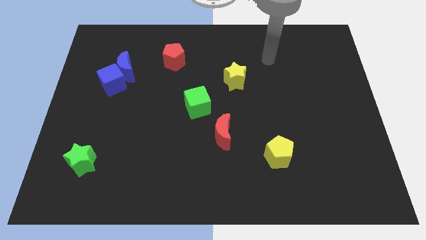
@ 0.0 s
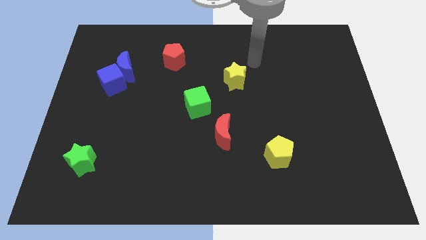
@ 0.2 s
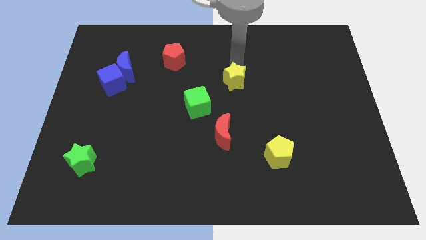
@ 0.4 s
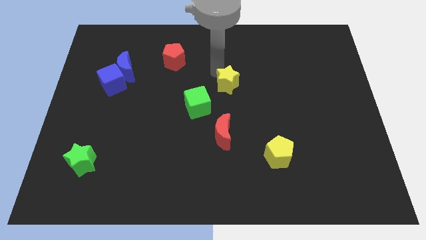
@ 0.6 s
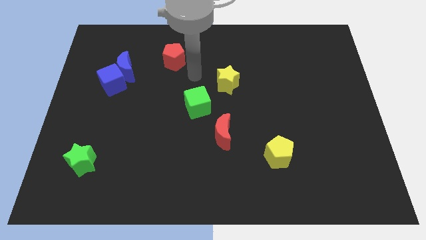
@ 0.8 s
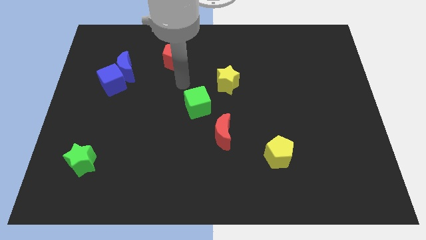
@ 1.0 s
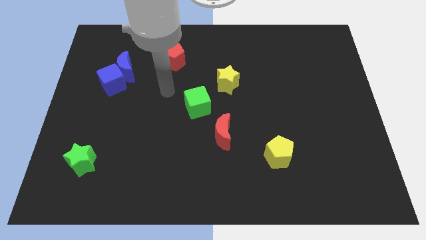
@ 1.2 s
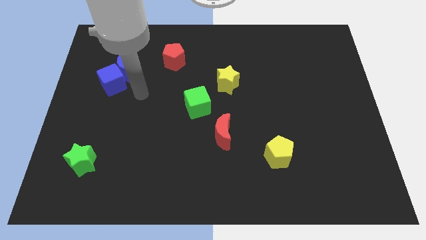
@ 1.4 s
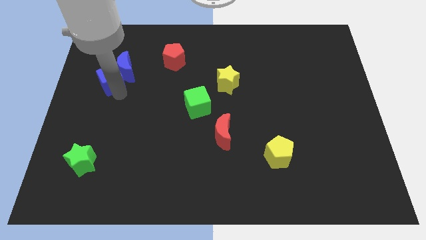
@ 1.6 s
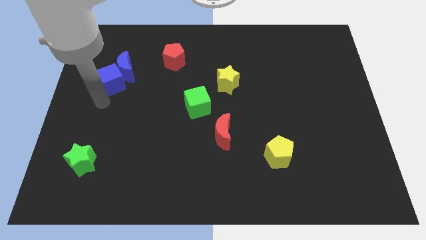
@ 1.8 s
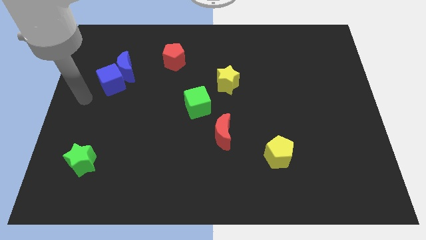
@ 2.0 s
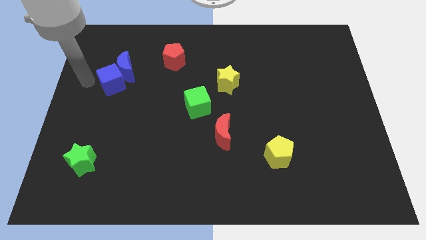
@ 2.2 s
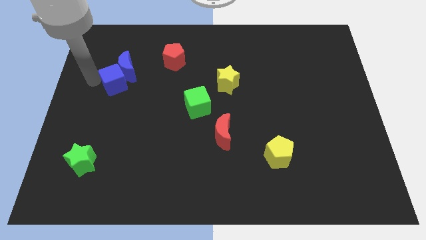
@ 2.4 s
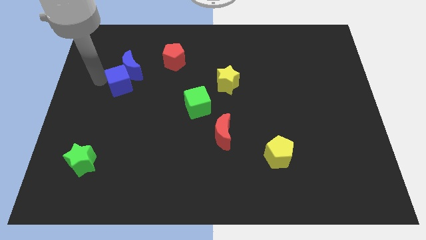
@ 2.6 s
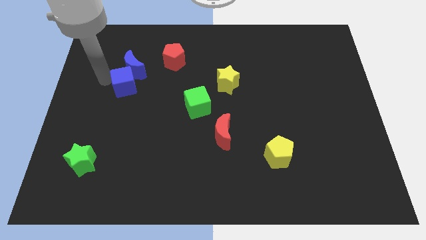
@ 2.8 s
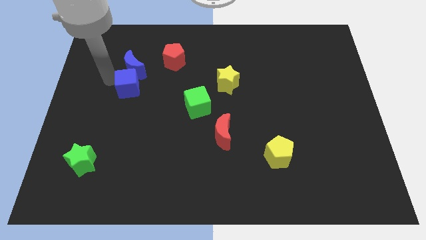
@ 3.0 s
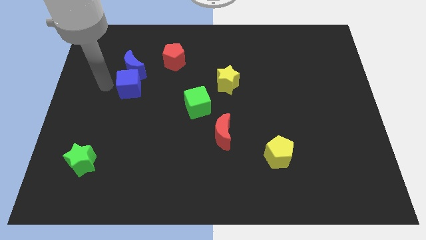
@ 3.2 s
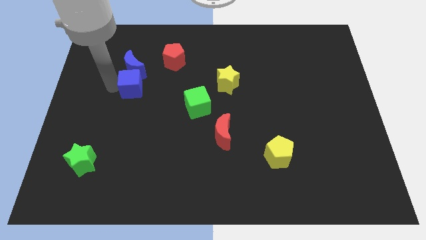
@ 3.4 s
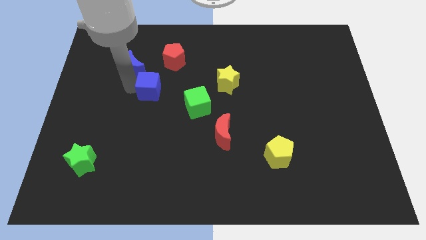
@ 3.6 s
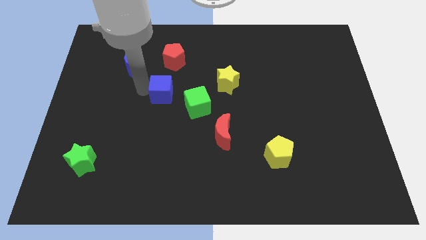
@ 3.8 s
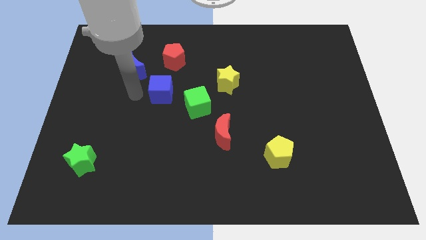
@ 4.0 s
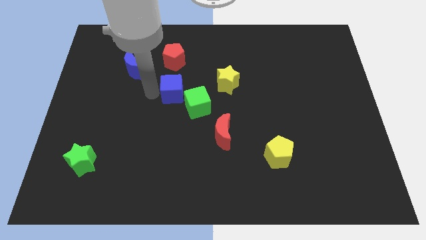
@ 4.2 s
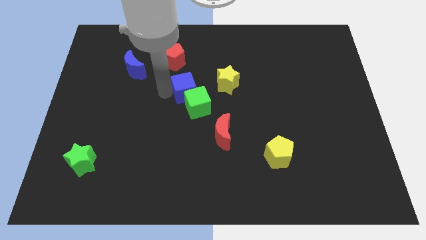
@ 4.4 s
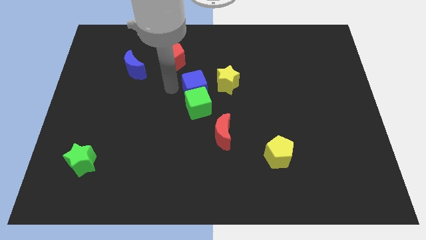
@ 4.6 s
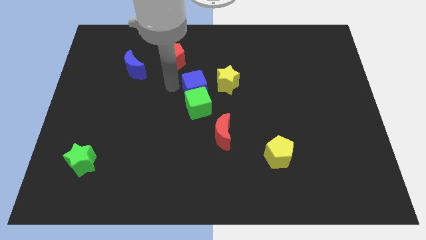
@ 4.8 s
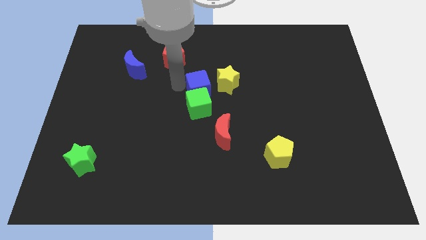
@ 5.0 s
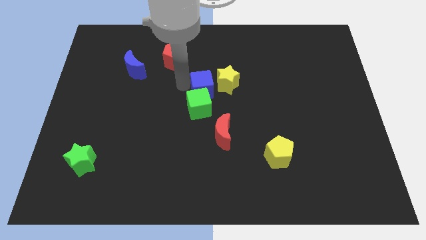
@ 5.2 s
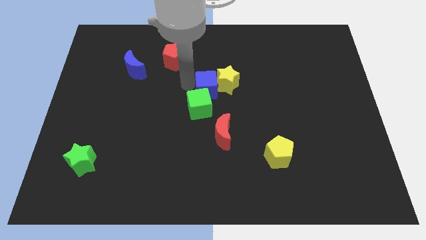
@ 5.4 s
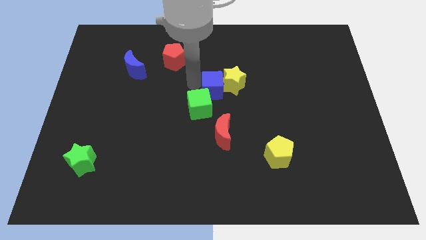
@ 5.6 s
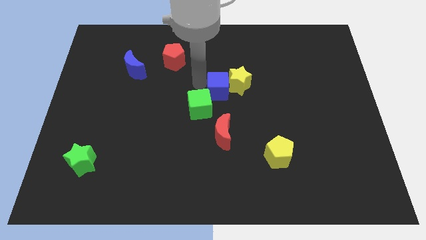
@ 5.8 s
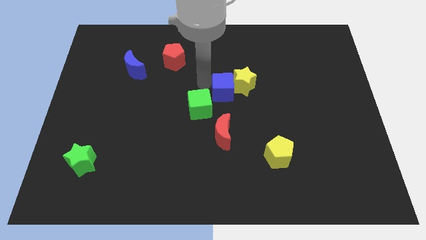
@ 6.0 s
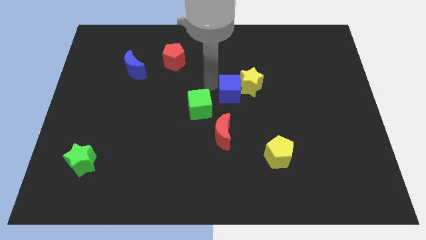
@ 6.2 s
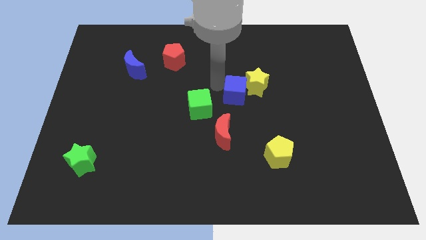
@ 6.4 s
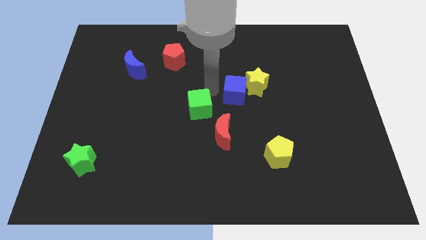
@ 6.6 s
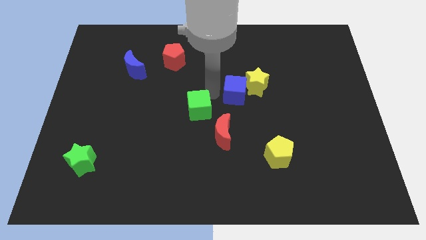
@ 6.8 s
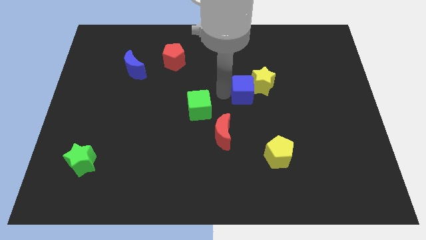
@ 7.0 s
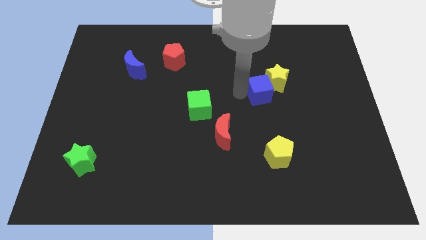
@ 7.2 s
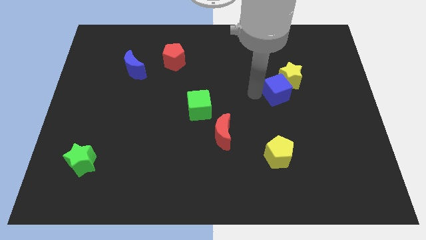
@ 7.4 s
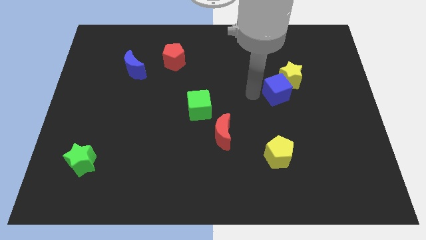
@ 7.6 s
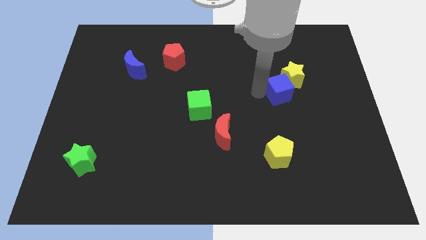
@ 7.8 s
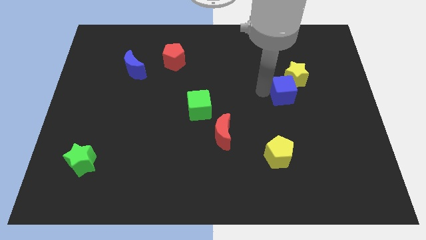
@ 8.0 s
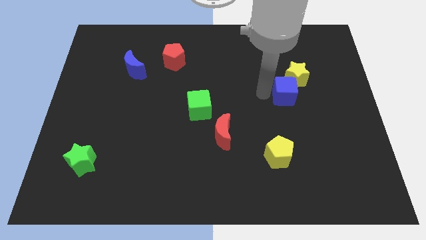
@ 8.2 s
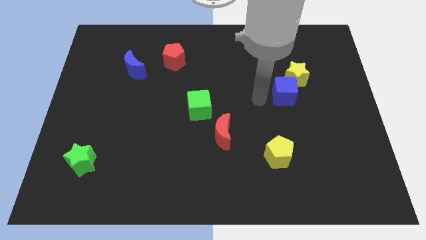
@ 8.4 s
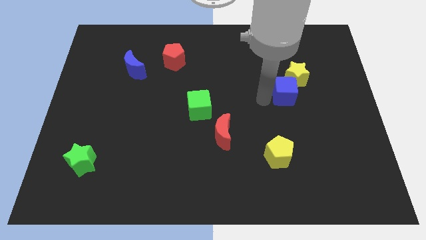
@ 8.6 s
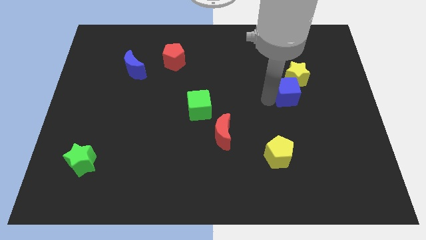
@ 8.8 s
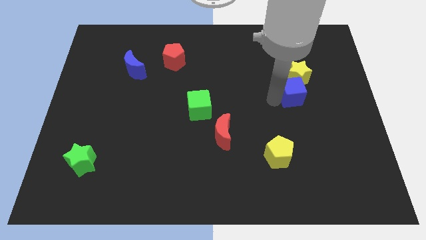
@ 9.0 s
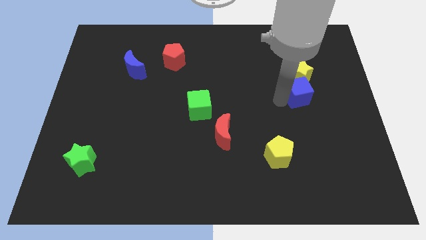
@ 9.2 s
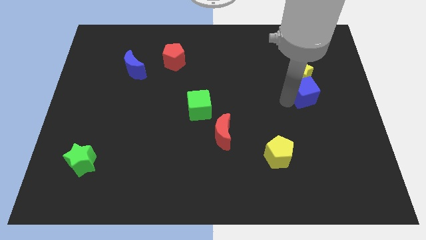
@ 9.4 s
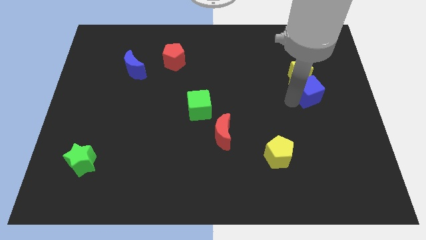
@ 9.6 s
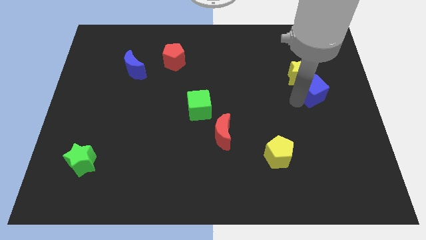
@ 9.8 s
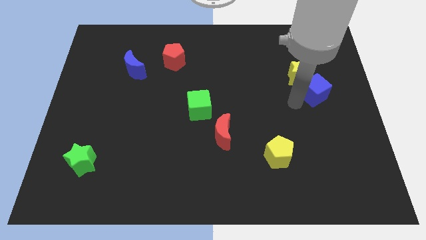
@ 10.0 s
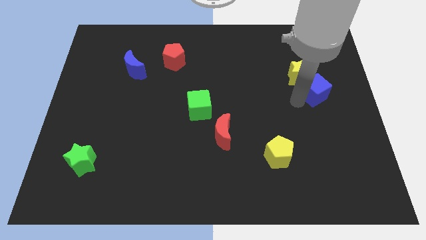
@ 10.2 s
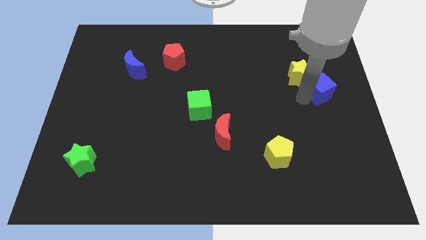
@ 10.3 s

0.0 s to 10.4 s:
put the blue cube to the center right

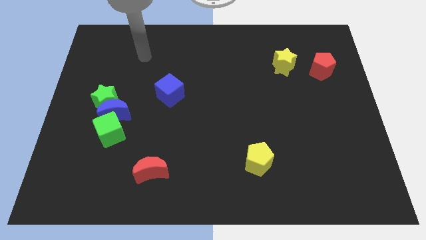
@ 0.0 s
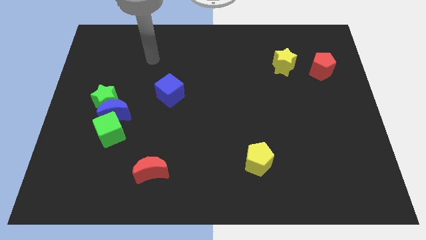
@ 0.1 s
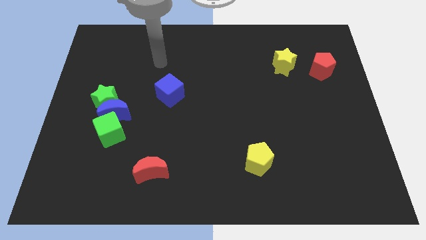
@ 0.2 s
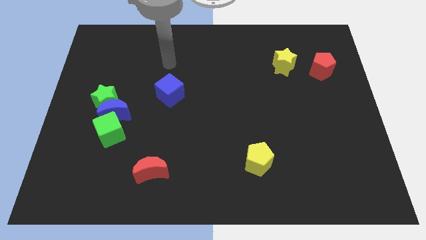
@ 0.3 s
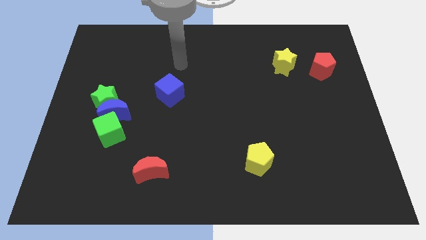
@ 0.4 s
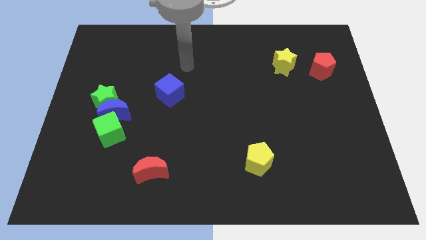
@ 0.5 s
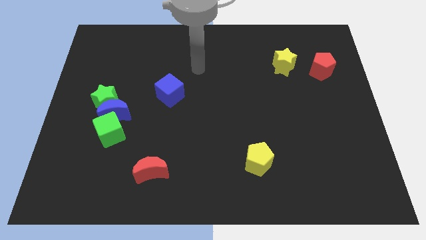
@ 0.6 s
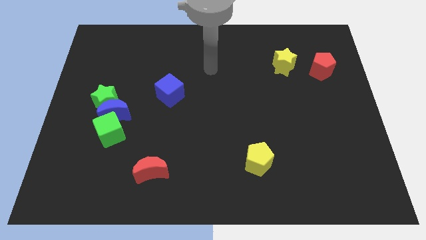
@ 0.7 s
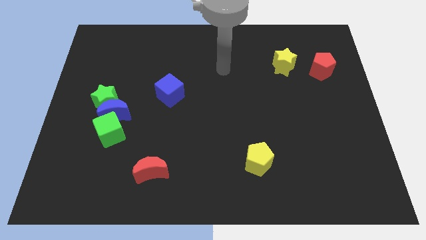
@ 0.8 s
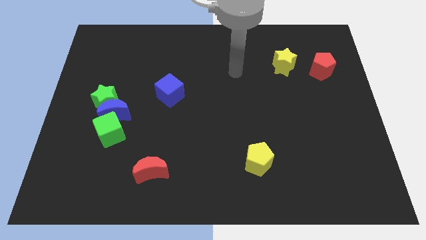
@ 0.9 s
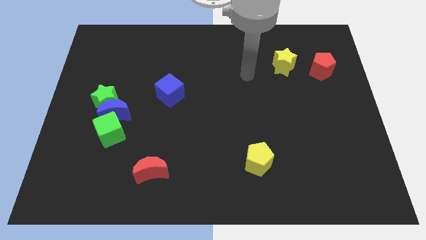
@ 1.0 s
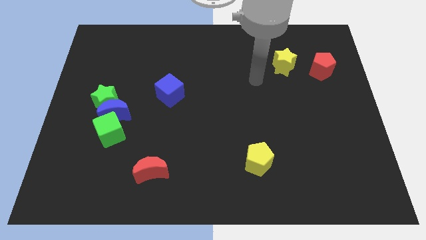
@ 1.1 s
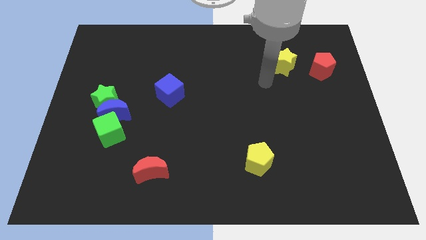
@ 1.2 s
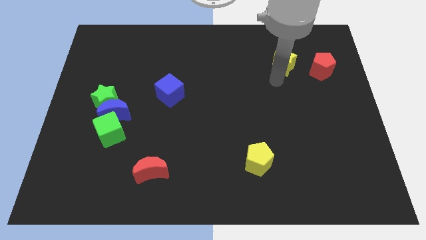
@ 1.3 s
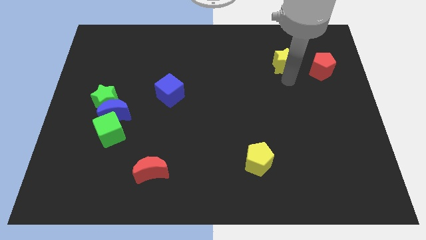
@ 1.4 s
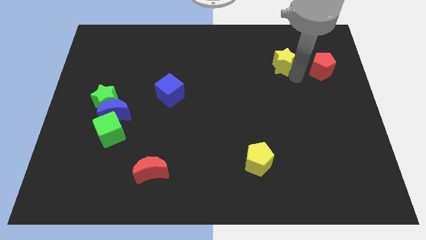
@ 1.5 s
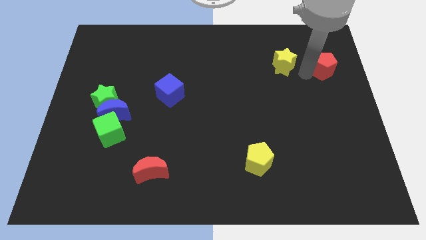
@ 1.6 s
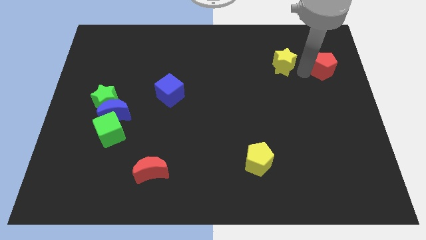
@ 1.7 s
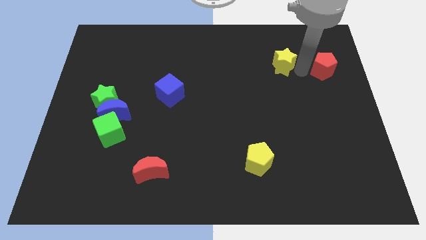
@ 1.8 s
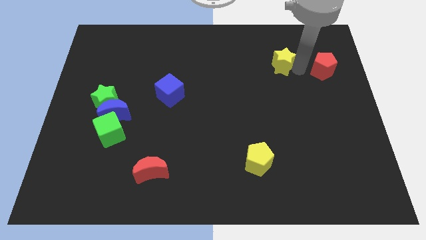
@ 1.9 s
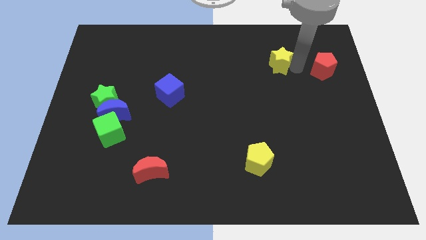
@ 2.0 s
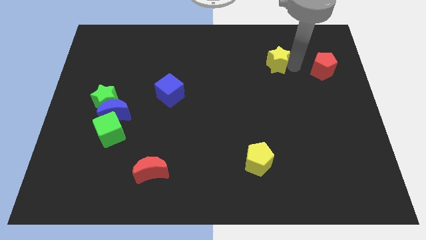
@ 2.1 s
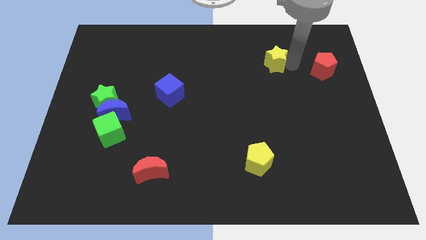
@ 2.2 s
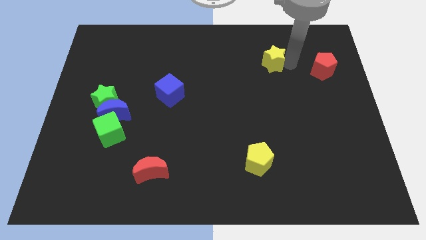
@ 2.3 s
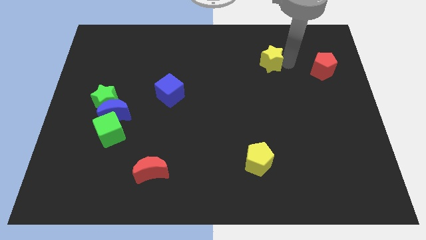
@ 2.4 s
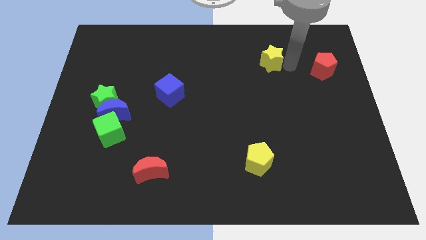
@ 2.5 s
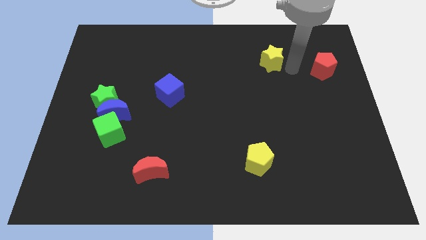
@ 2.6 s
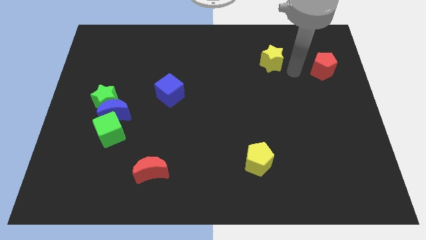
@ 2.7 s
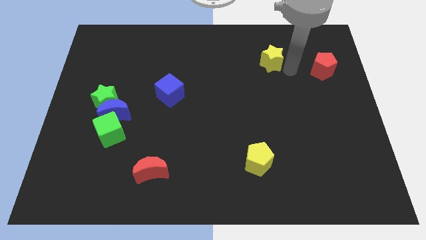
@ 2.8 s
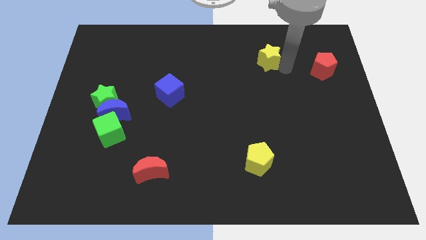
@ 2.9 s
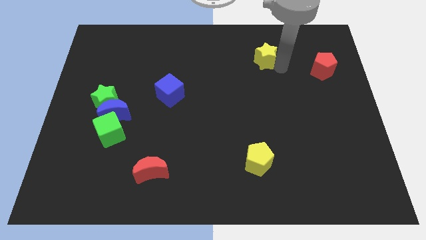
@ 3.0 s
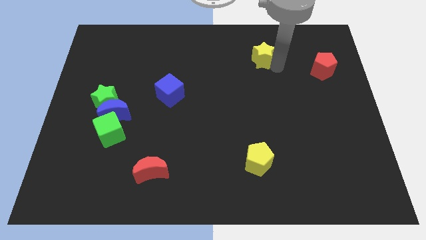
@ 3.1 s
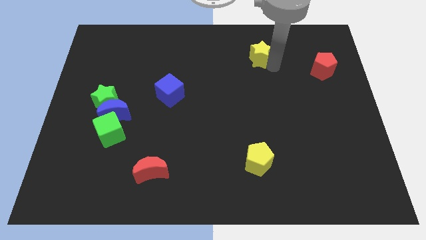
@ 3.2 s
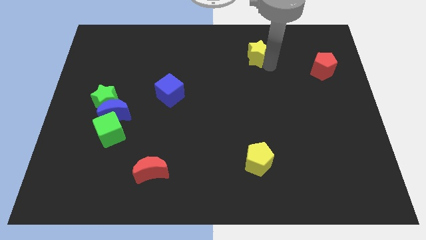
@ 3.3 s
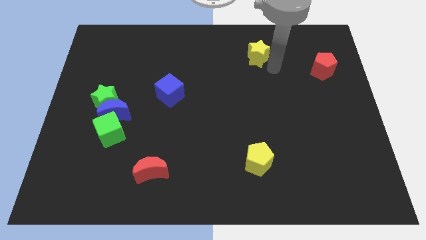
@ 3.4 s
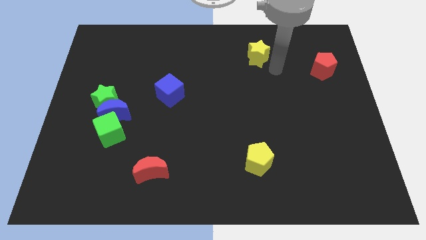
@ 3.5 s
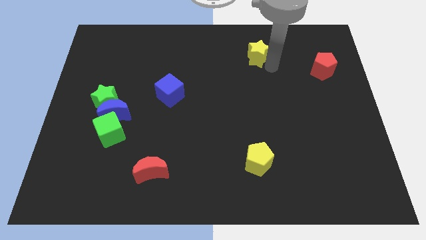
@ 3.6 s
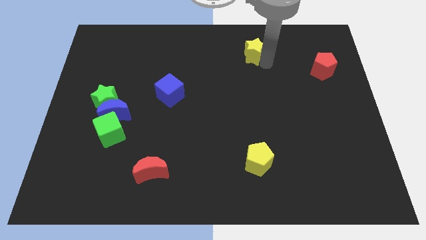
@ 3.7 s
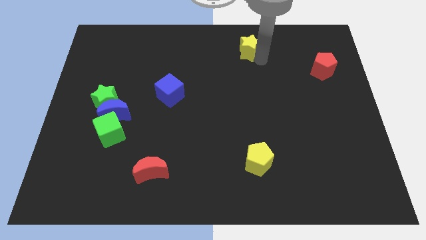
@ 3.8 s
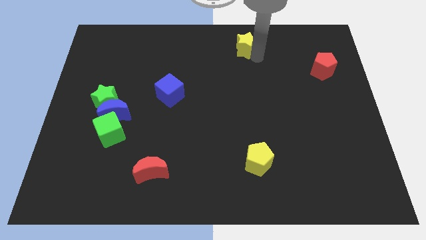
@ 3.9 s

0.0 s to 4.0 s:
move the yellow star to the towards your base
